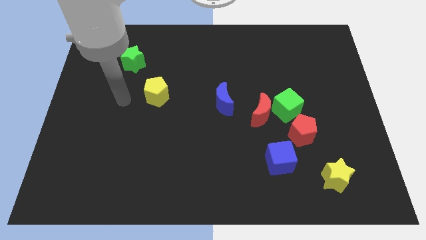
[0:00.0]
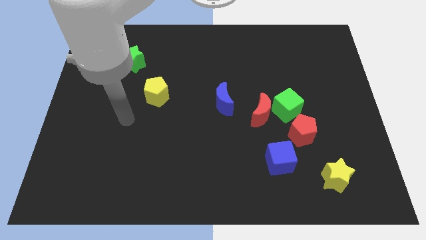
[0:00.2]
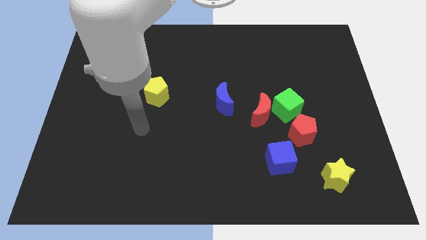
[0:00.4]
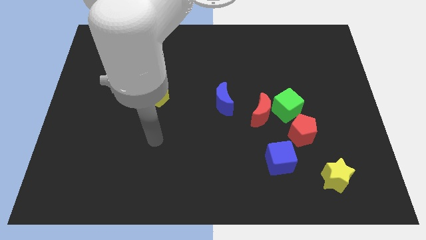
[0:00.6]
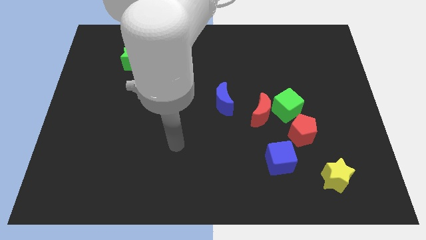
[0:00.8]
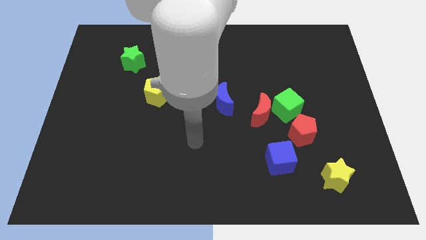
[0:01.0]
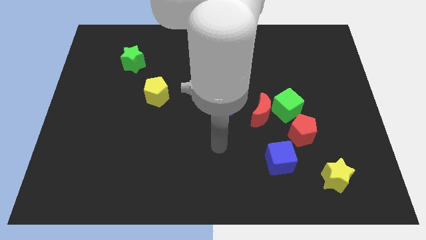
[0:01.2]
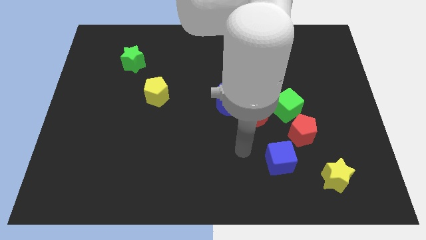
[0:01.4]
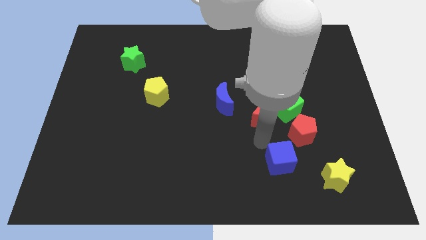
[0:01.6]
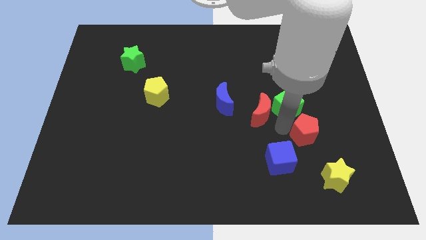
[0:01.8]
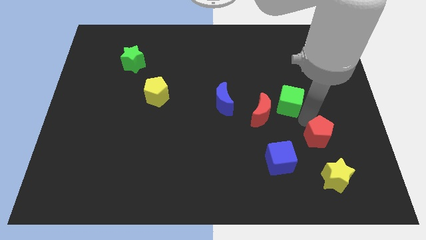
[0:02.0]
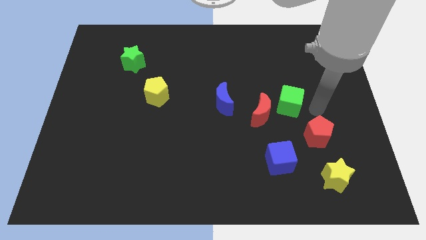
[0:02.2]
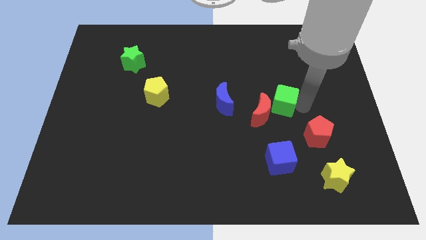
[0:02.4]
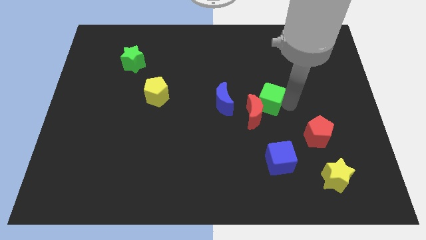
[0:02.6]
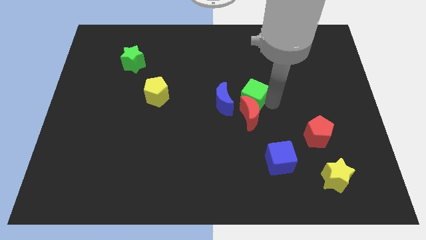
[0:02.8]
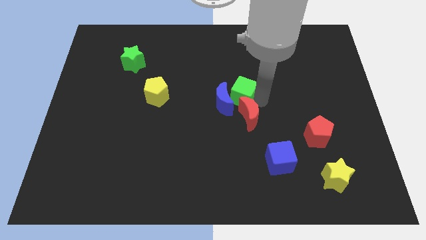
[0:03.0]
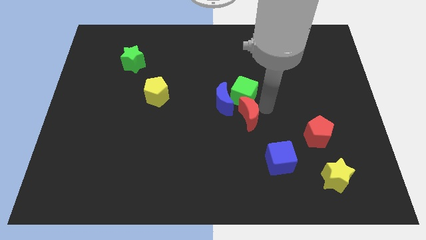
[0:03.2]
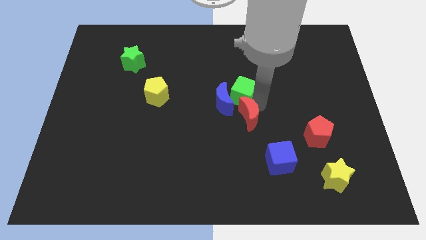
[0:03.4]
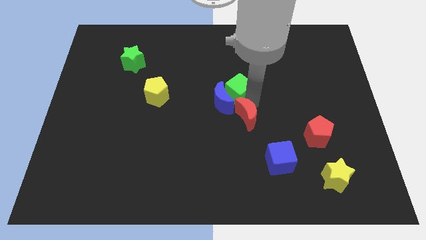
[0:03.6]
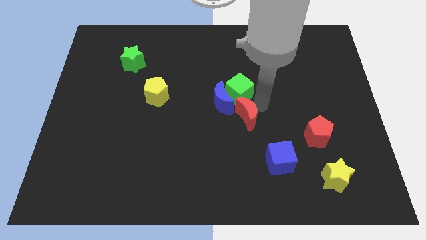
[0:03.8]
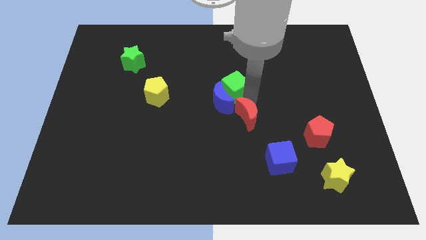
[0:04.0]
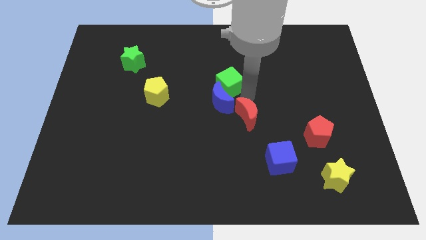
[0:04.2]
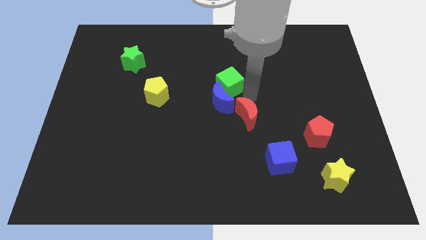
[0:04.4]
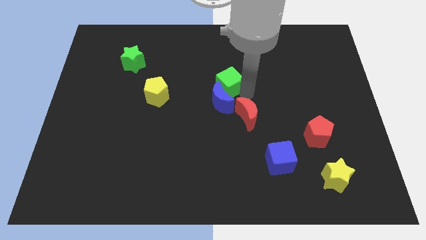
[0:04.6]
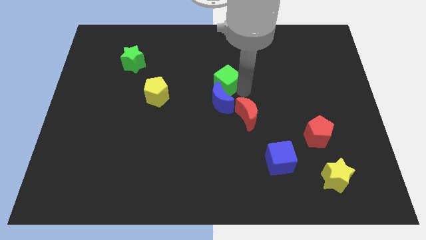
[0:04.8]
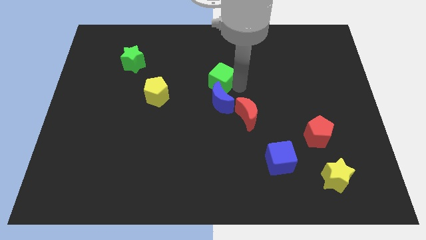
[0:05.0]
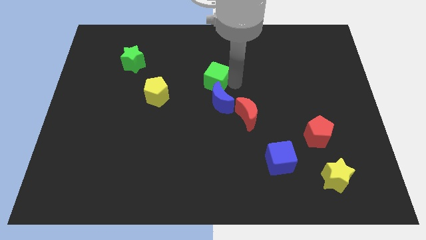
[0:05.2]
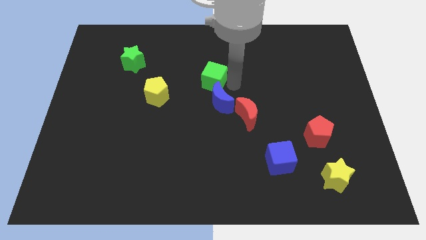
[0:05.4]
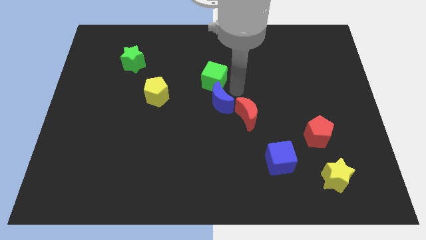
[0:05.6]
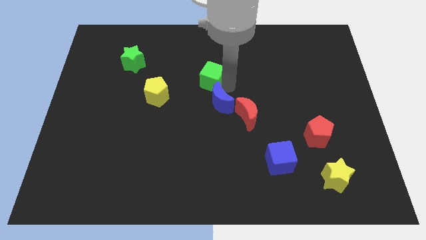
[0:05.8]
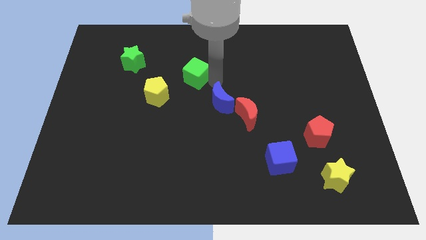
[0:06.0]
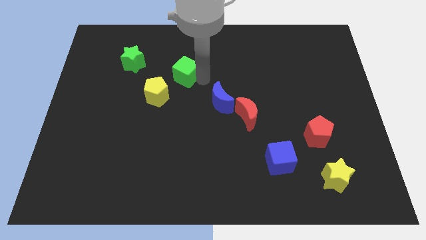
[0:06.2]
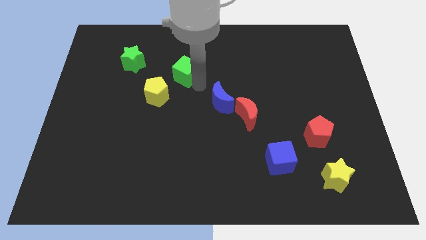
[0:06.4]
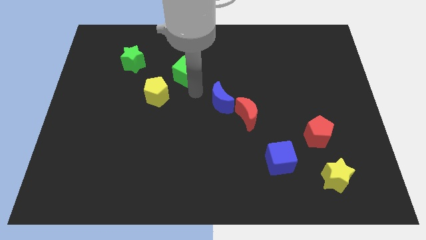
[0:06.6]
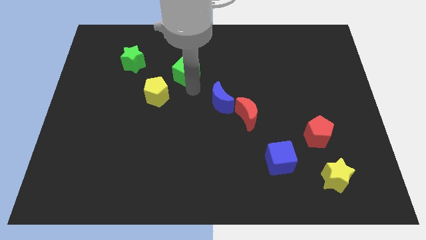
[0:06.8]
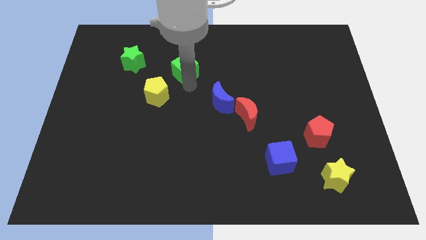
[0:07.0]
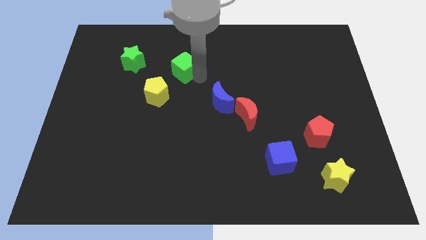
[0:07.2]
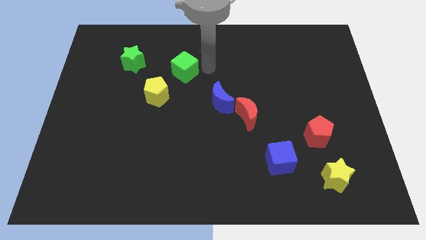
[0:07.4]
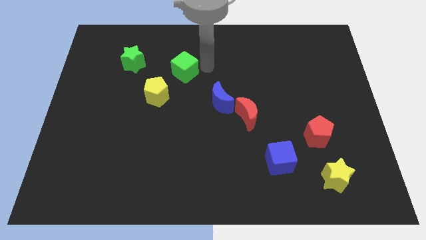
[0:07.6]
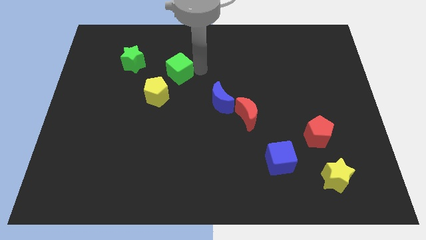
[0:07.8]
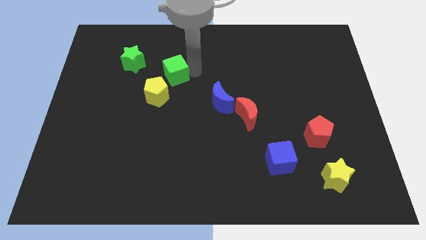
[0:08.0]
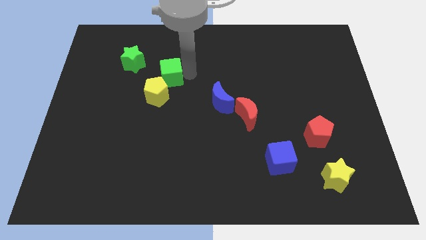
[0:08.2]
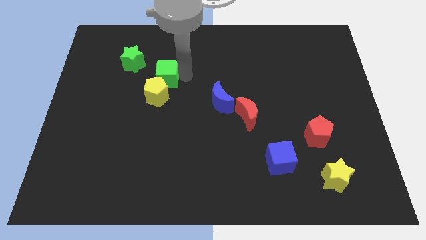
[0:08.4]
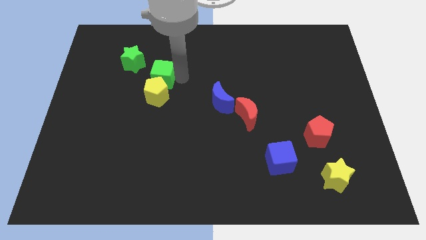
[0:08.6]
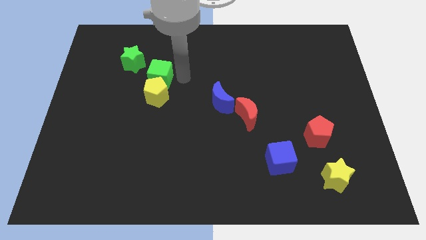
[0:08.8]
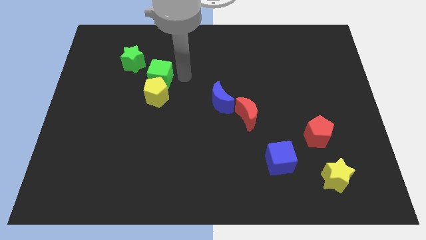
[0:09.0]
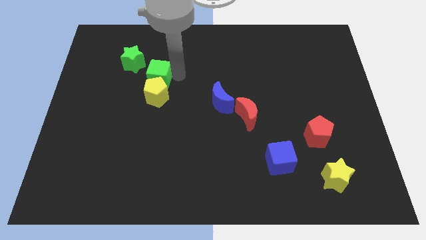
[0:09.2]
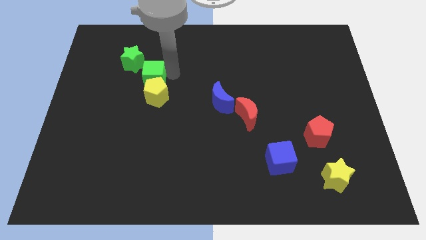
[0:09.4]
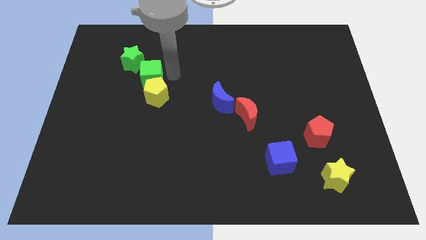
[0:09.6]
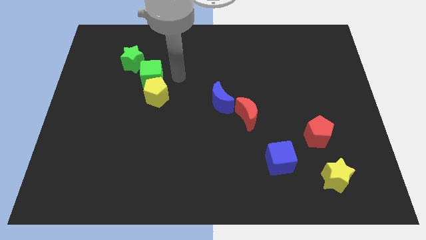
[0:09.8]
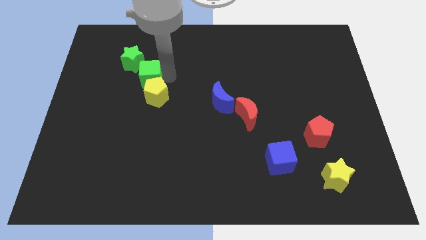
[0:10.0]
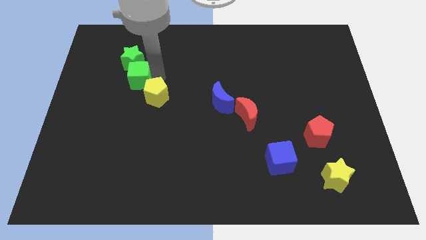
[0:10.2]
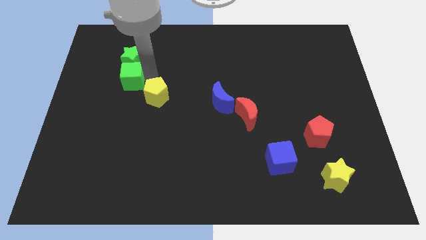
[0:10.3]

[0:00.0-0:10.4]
put the green cube to the bottom left side of the green star

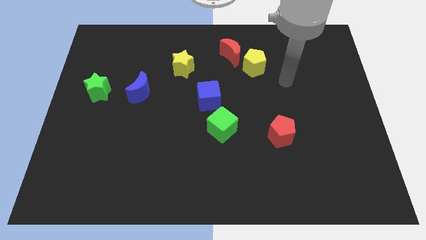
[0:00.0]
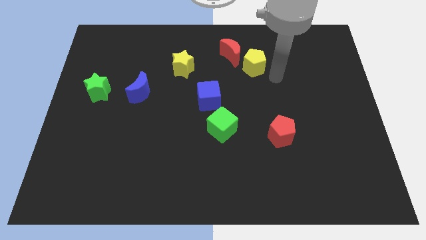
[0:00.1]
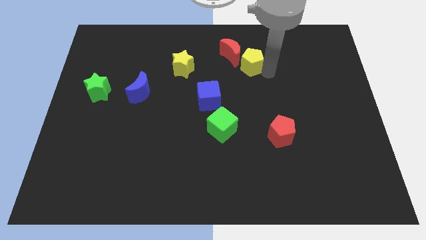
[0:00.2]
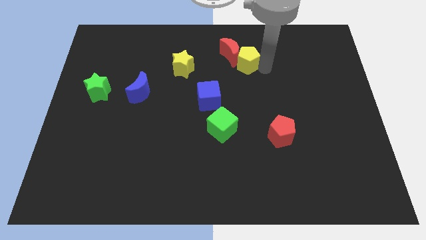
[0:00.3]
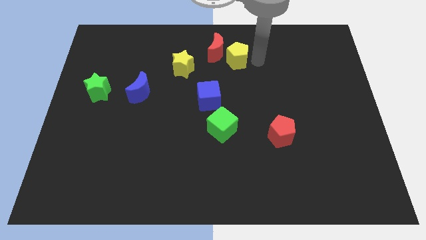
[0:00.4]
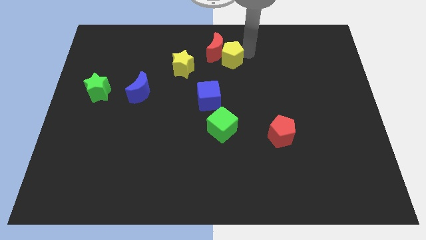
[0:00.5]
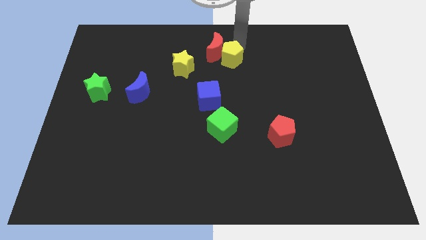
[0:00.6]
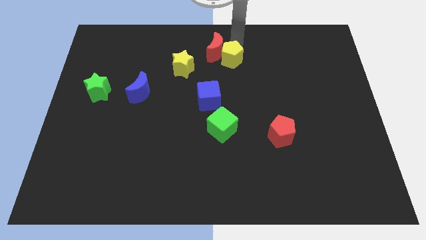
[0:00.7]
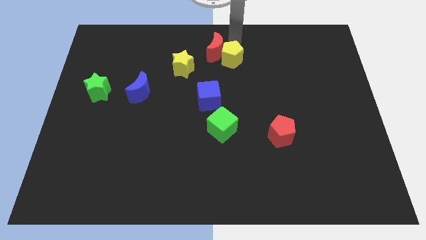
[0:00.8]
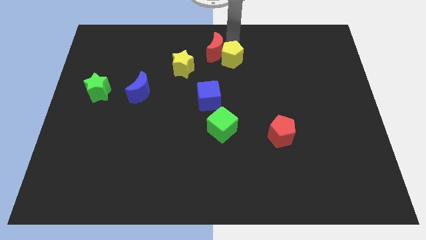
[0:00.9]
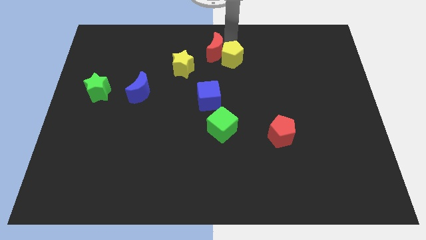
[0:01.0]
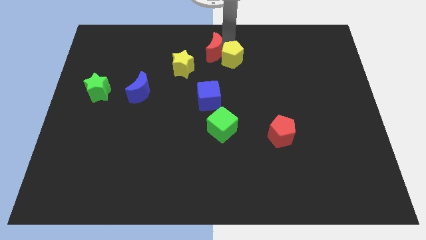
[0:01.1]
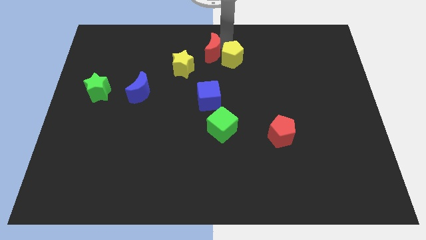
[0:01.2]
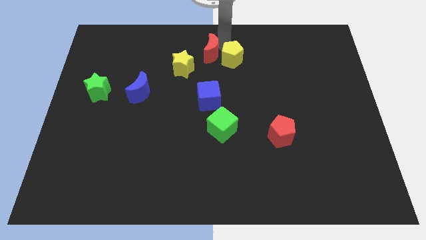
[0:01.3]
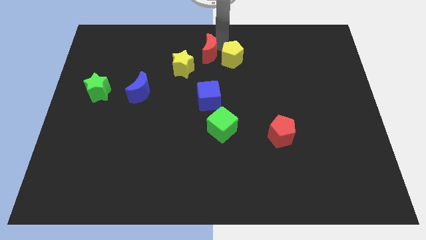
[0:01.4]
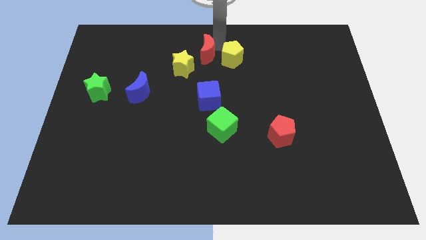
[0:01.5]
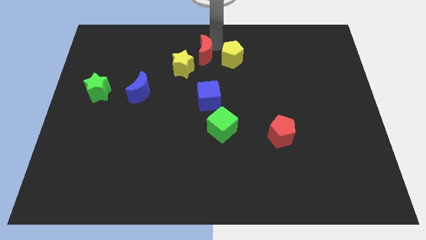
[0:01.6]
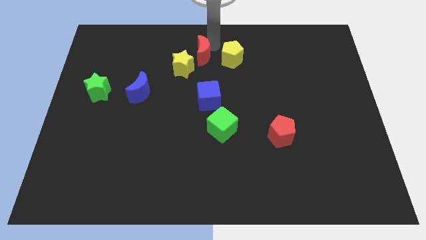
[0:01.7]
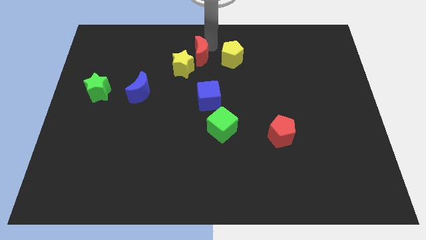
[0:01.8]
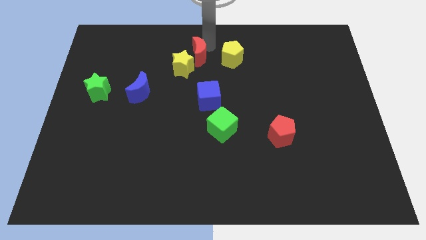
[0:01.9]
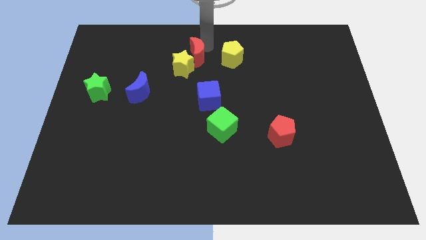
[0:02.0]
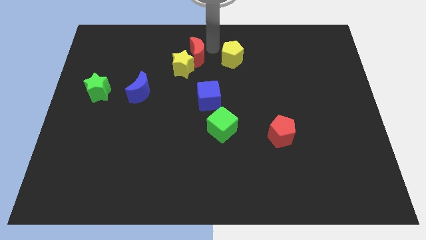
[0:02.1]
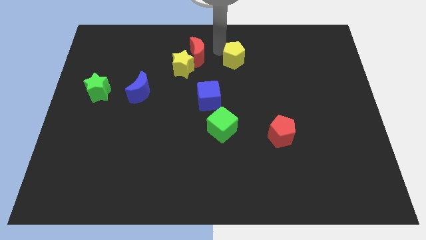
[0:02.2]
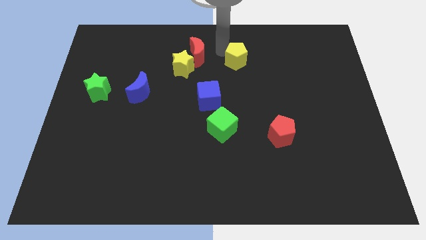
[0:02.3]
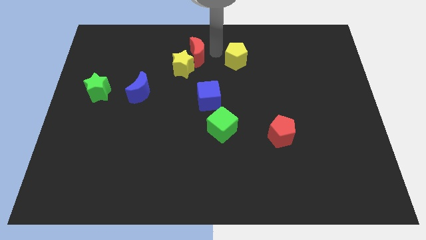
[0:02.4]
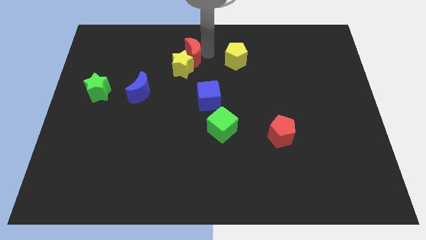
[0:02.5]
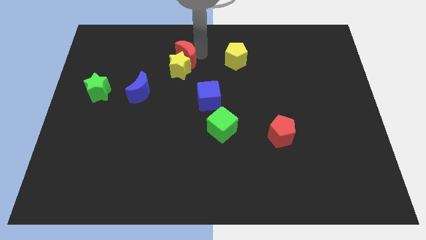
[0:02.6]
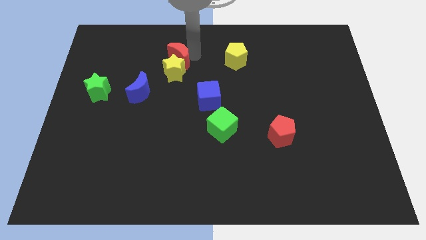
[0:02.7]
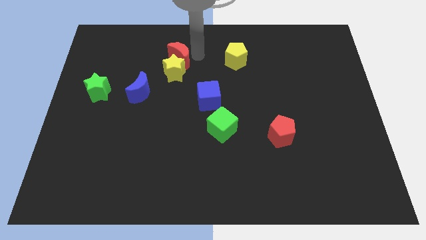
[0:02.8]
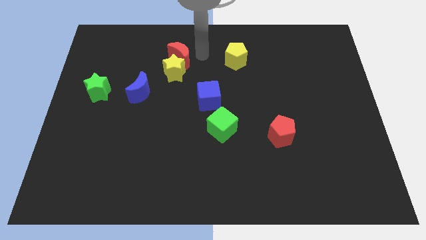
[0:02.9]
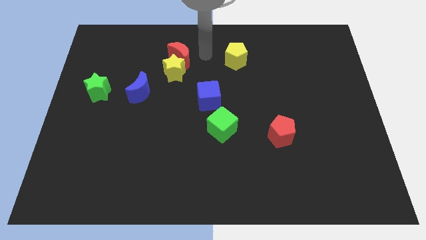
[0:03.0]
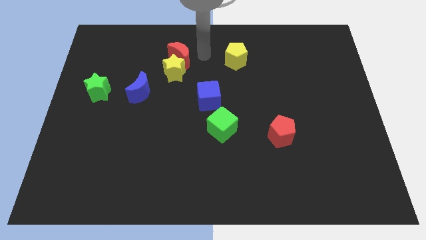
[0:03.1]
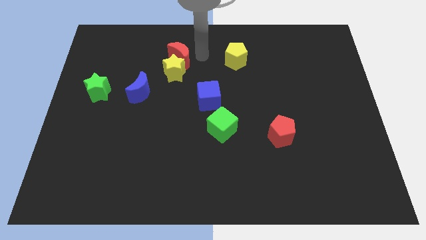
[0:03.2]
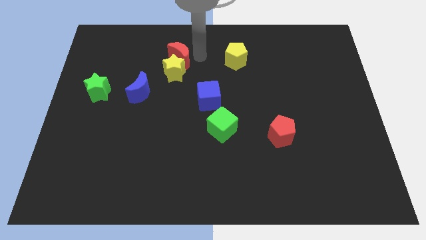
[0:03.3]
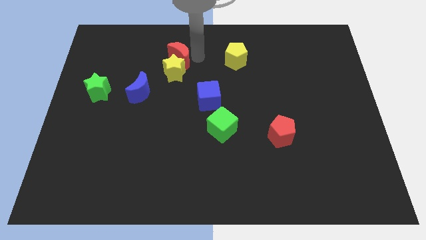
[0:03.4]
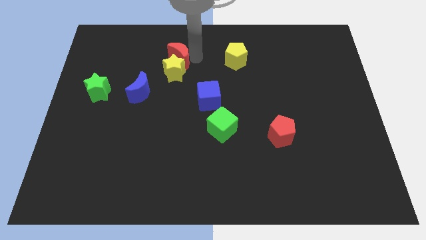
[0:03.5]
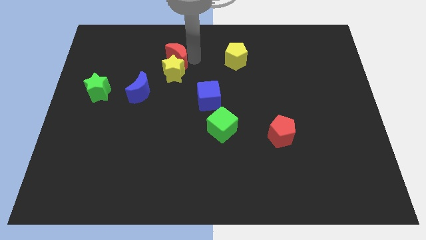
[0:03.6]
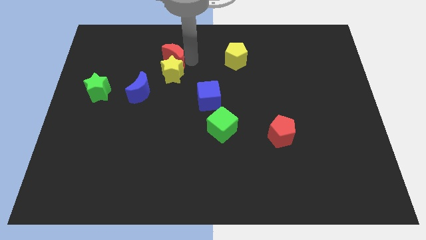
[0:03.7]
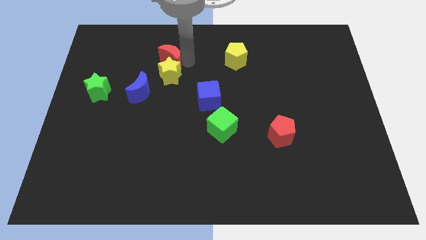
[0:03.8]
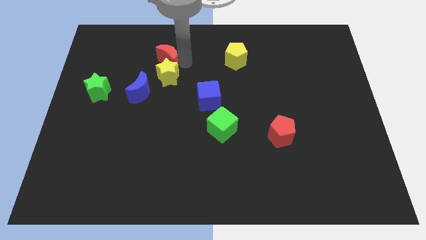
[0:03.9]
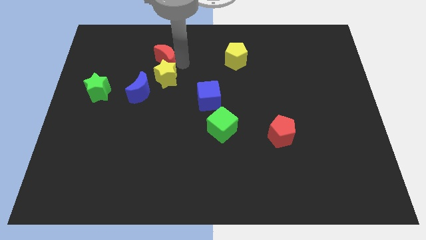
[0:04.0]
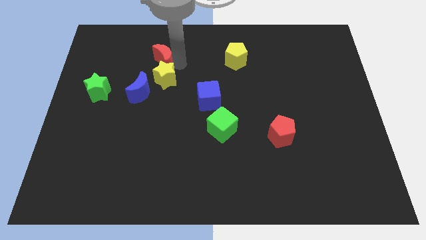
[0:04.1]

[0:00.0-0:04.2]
put the red moon to the top side of the blue moon
